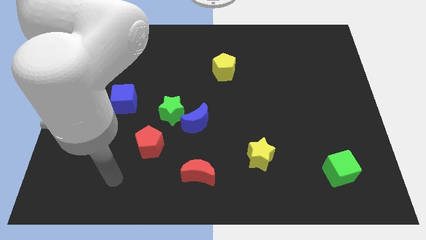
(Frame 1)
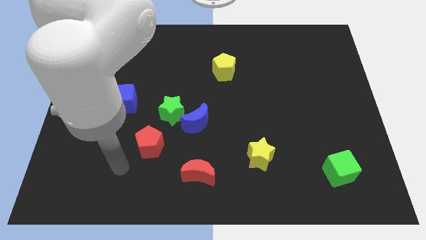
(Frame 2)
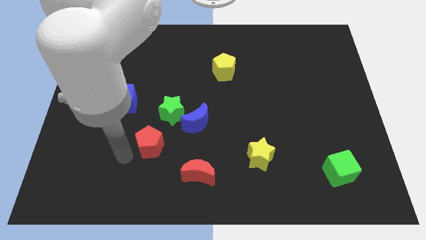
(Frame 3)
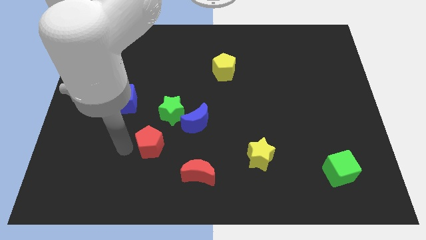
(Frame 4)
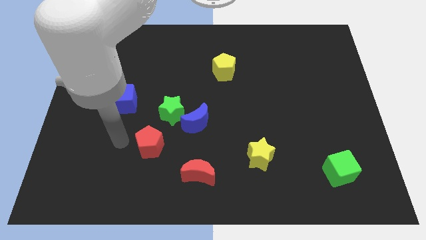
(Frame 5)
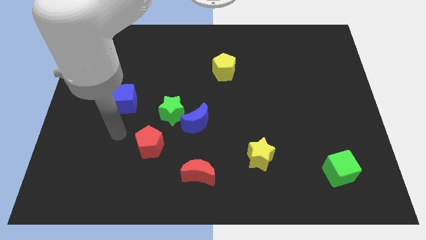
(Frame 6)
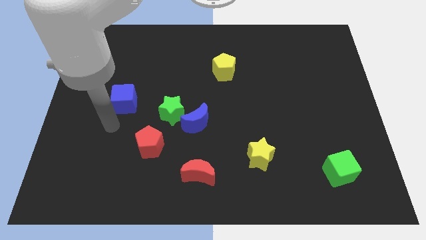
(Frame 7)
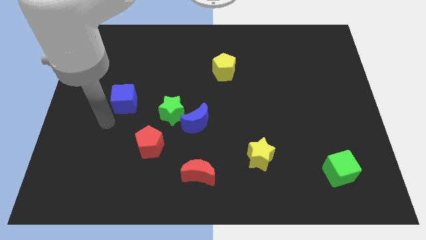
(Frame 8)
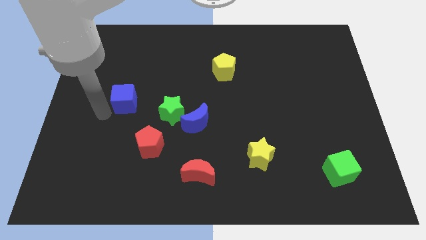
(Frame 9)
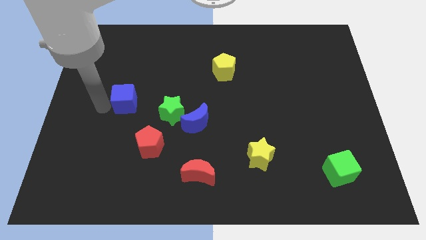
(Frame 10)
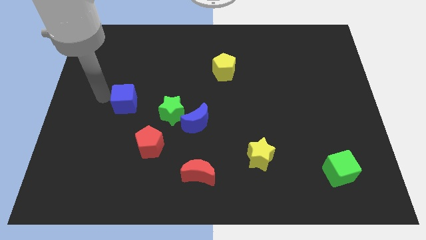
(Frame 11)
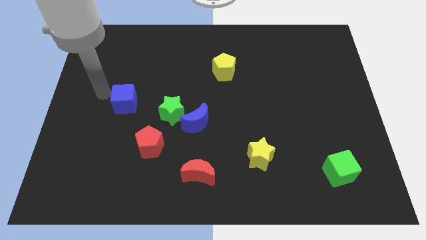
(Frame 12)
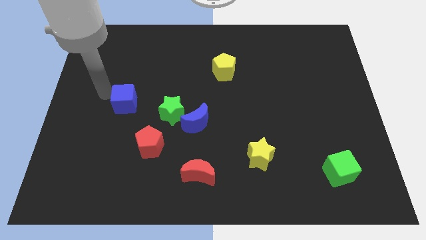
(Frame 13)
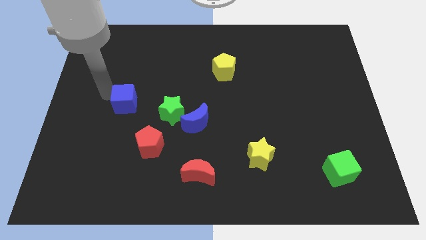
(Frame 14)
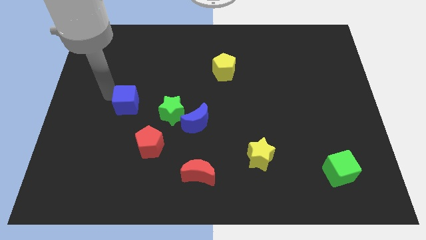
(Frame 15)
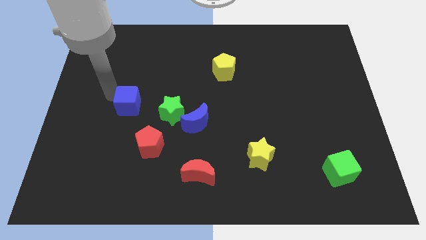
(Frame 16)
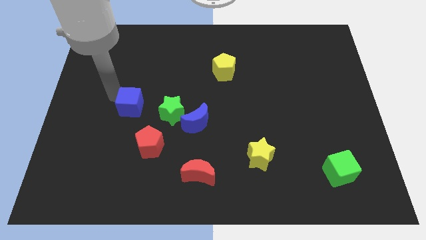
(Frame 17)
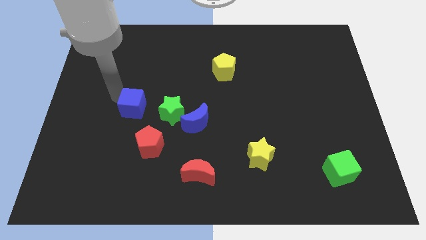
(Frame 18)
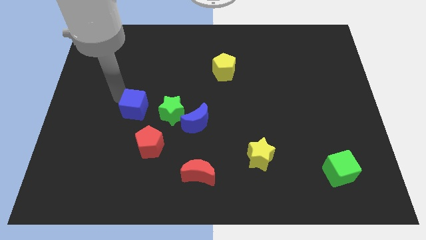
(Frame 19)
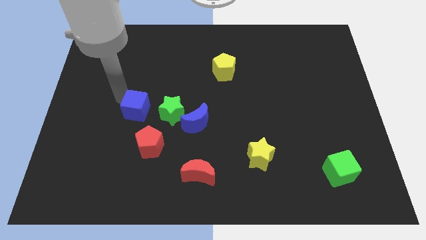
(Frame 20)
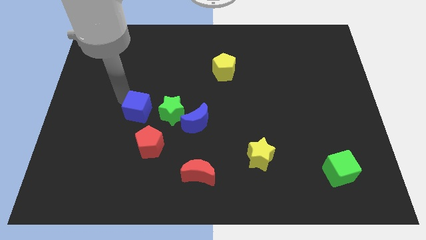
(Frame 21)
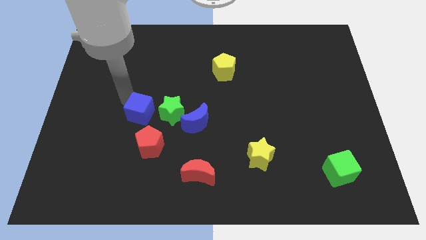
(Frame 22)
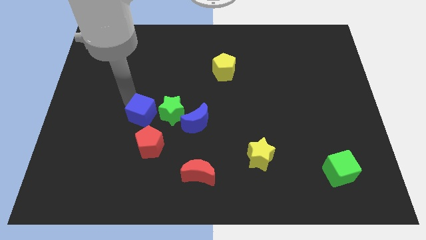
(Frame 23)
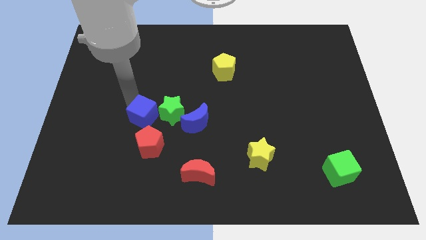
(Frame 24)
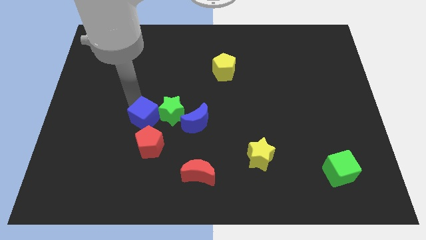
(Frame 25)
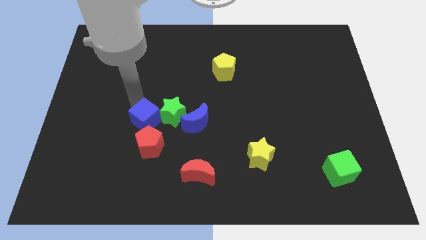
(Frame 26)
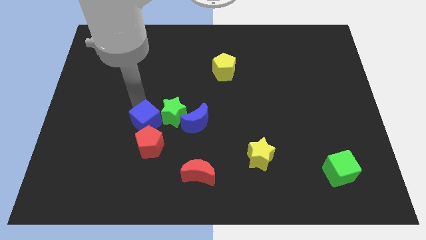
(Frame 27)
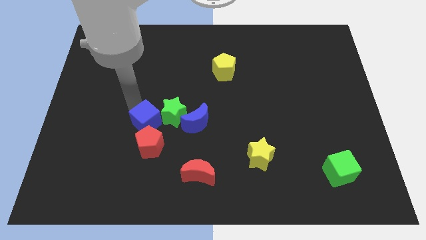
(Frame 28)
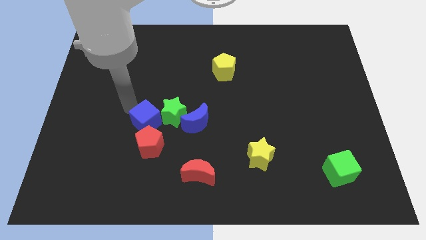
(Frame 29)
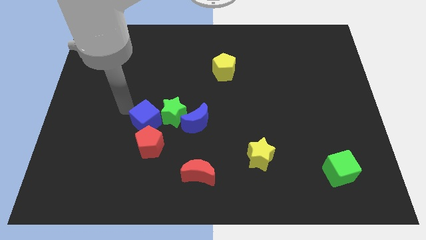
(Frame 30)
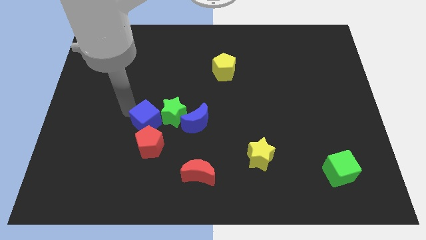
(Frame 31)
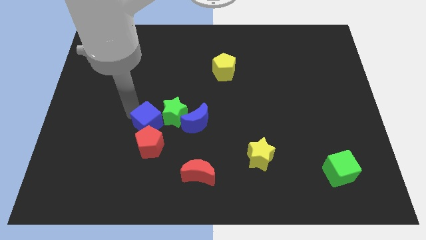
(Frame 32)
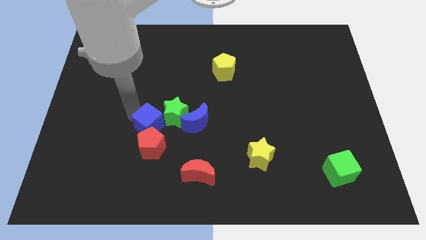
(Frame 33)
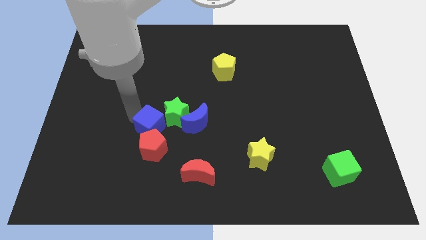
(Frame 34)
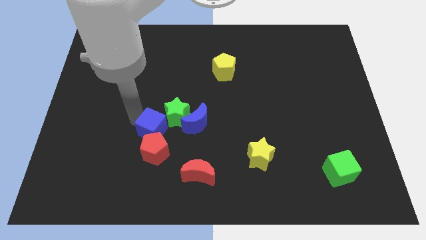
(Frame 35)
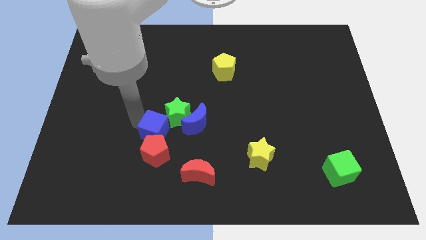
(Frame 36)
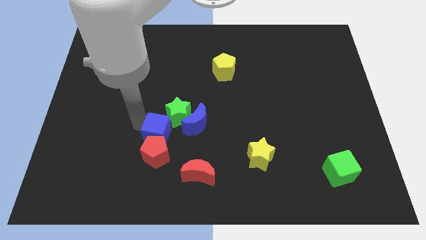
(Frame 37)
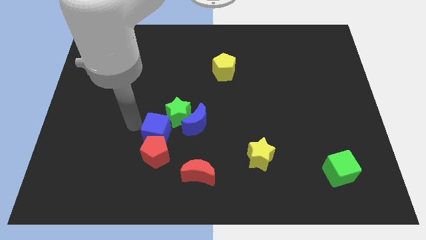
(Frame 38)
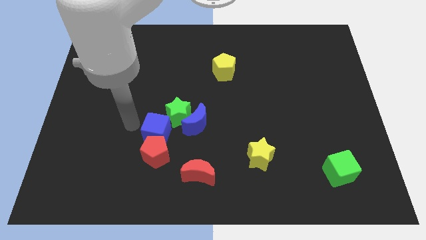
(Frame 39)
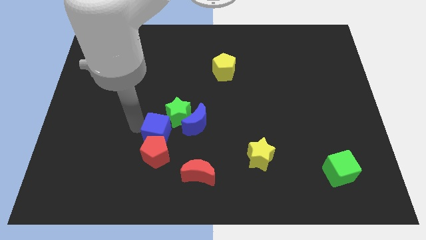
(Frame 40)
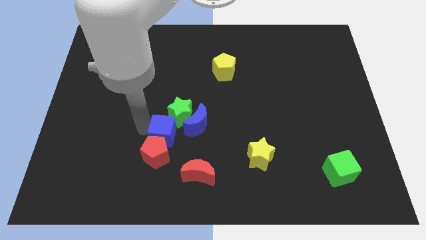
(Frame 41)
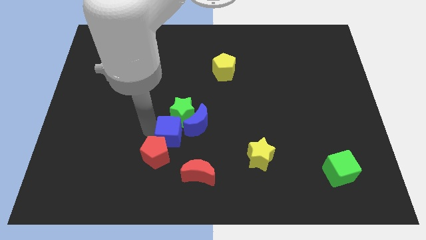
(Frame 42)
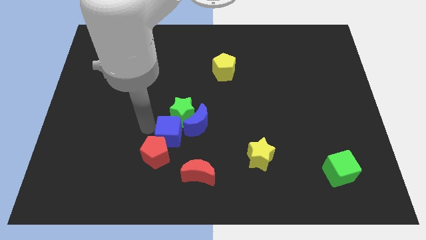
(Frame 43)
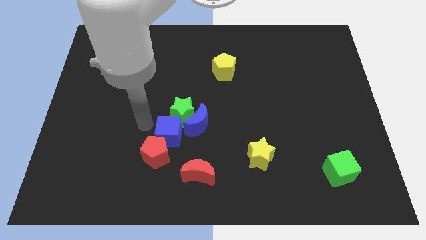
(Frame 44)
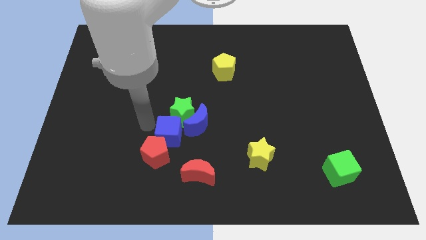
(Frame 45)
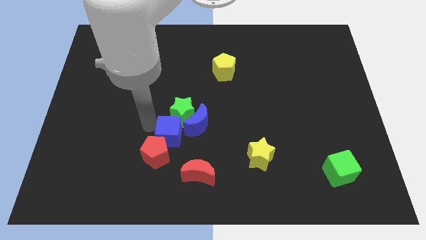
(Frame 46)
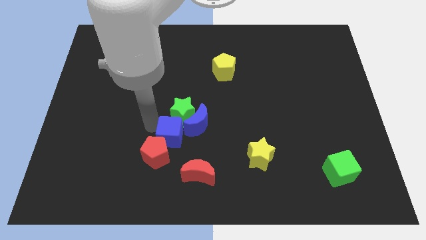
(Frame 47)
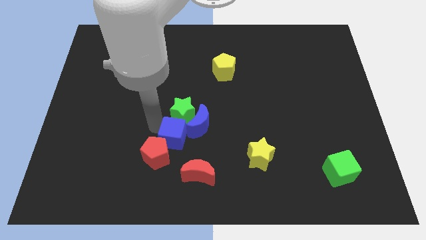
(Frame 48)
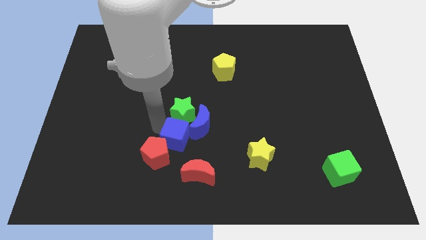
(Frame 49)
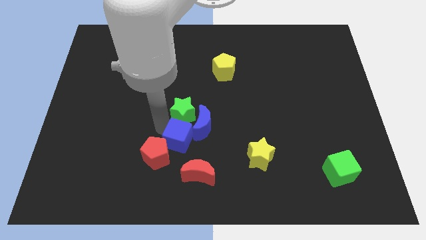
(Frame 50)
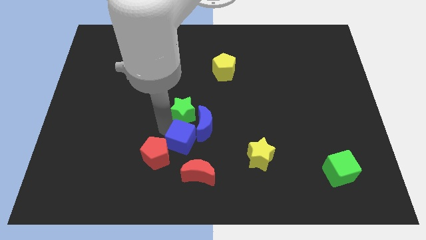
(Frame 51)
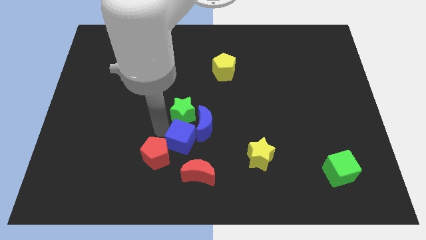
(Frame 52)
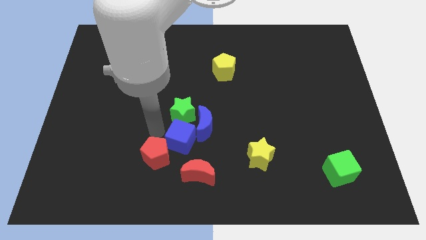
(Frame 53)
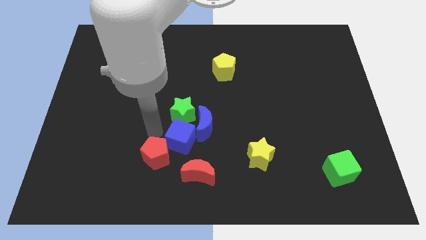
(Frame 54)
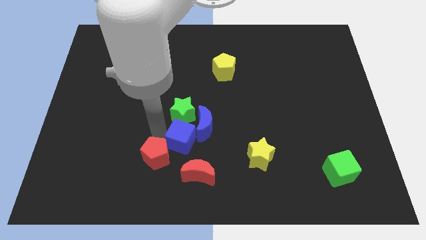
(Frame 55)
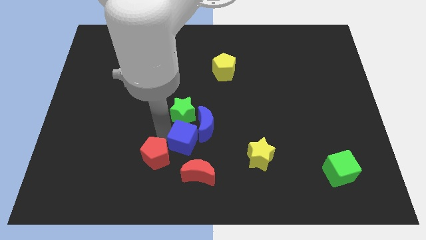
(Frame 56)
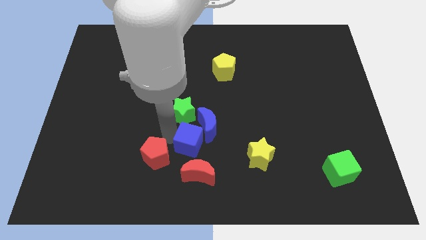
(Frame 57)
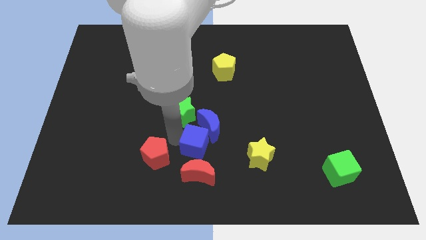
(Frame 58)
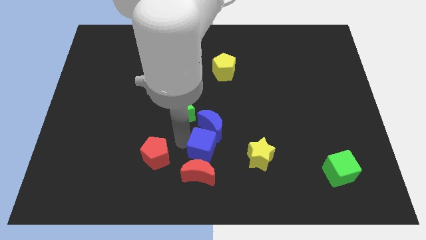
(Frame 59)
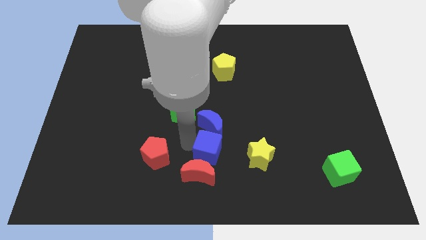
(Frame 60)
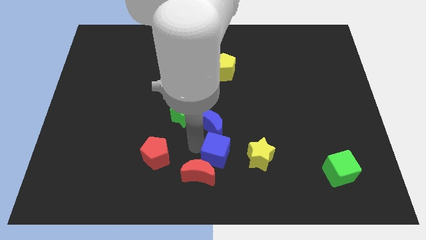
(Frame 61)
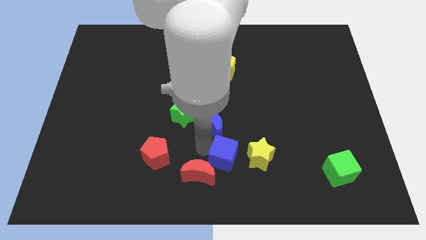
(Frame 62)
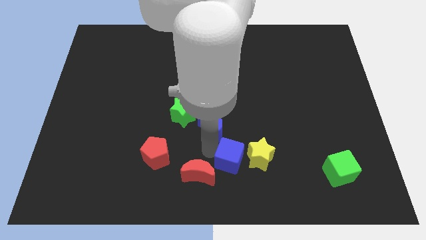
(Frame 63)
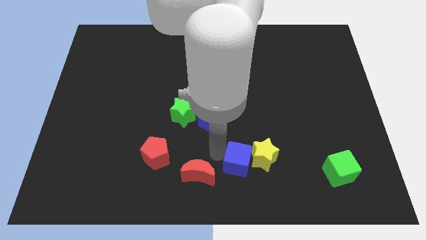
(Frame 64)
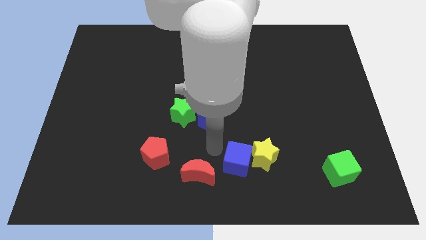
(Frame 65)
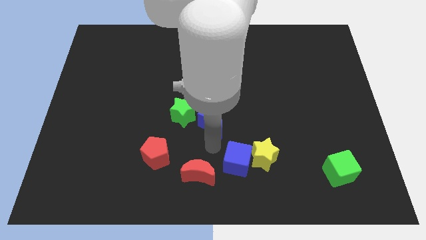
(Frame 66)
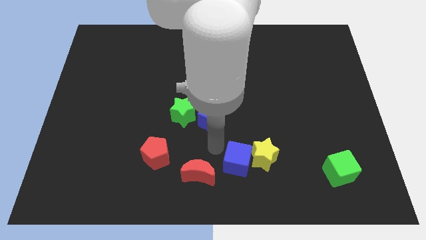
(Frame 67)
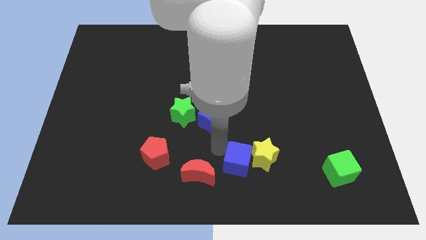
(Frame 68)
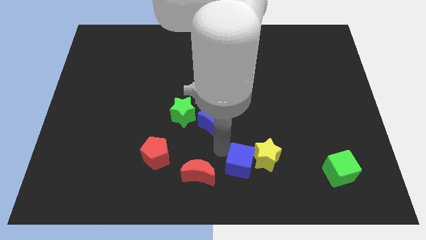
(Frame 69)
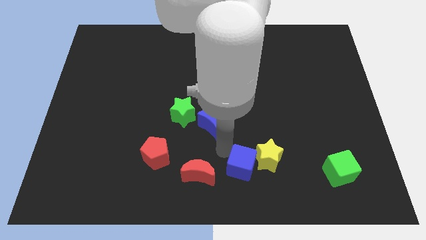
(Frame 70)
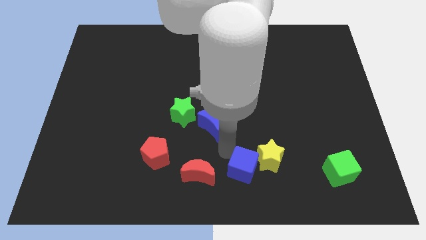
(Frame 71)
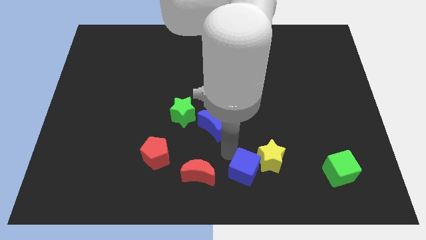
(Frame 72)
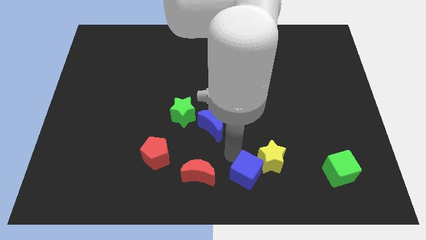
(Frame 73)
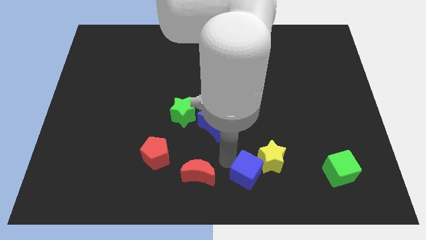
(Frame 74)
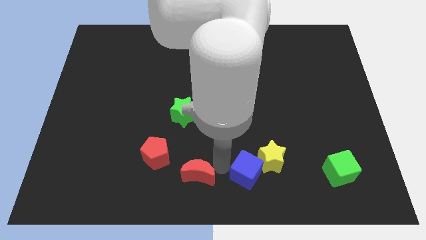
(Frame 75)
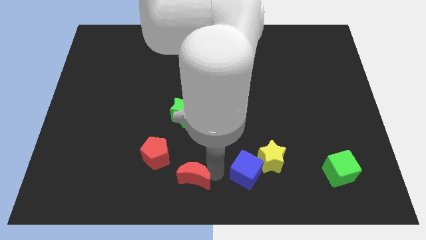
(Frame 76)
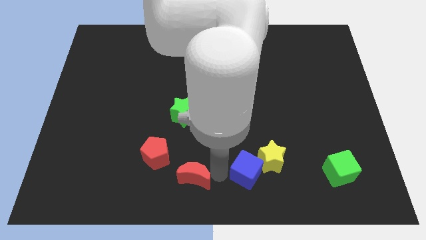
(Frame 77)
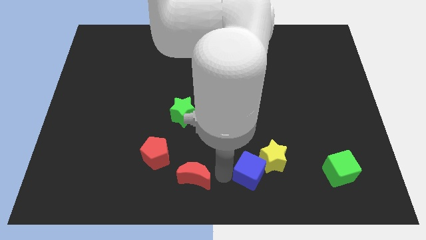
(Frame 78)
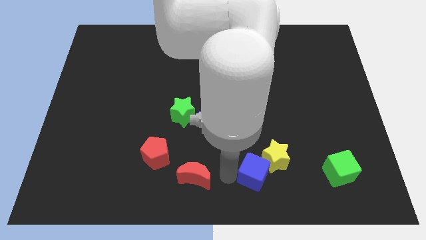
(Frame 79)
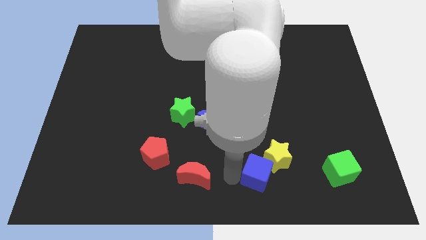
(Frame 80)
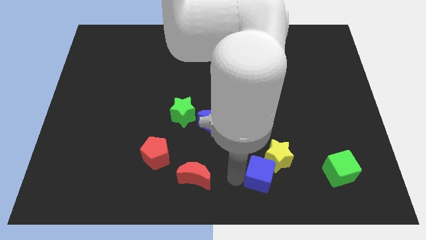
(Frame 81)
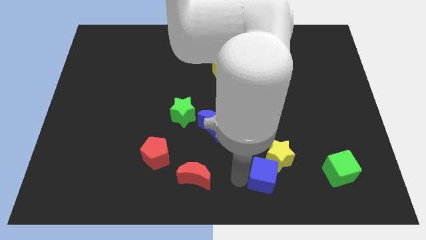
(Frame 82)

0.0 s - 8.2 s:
push the blue cube to the left of the green cube
